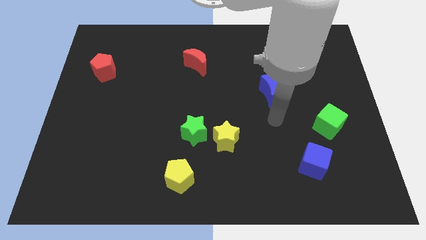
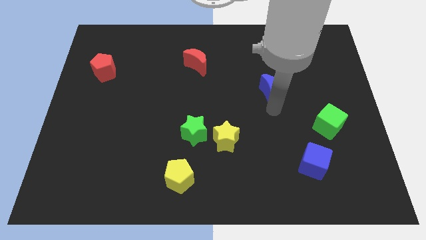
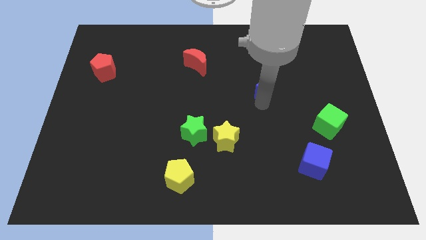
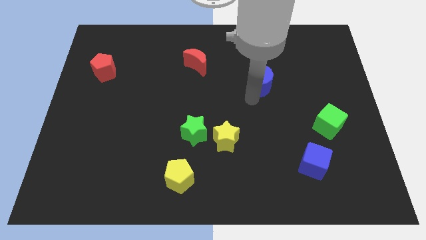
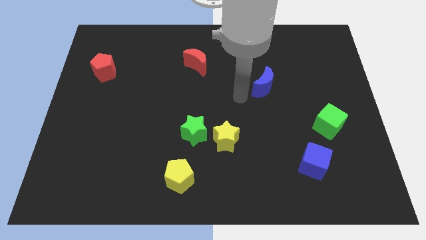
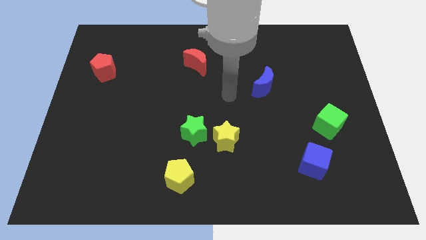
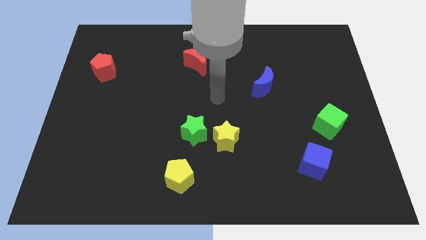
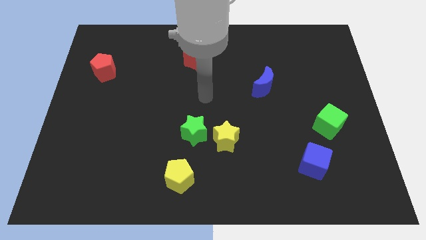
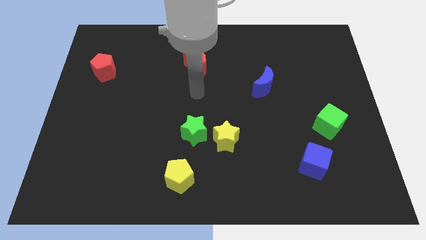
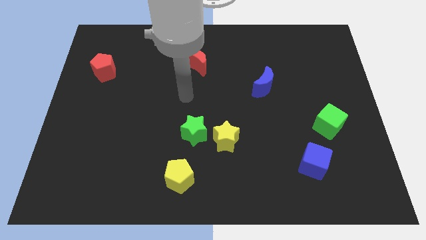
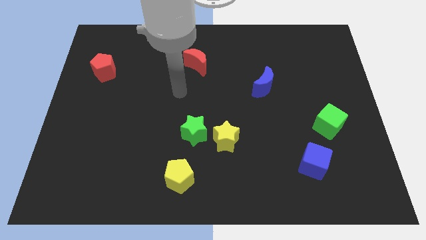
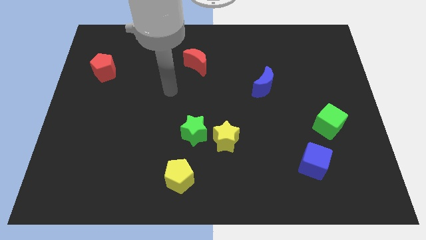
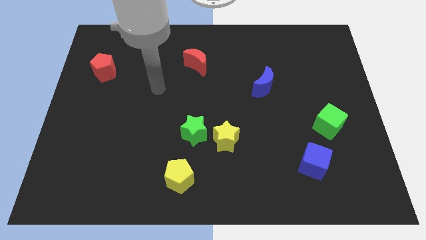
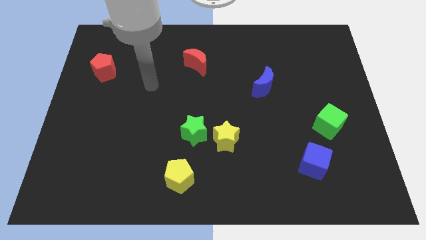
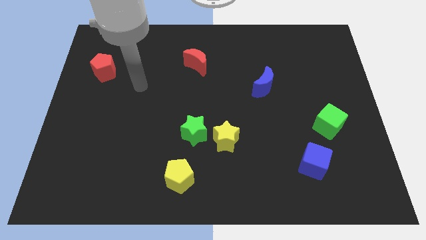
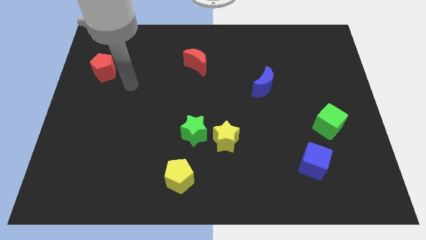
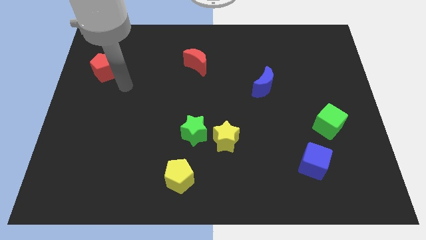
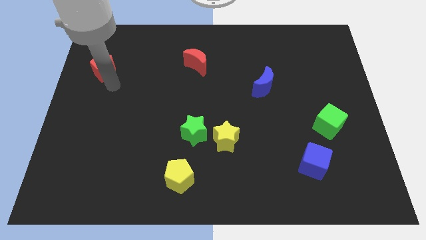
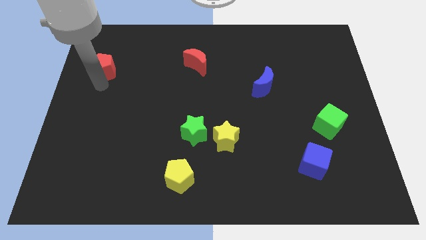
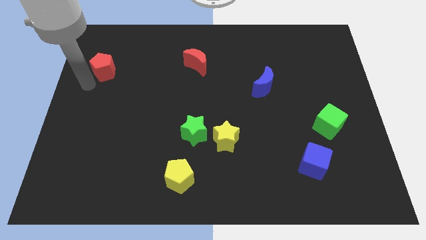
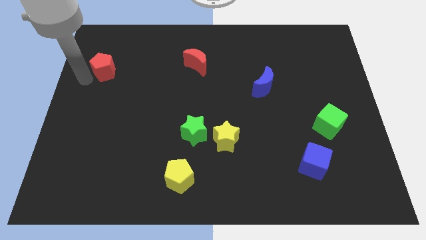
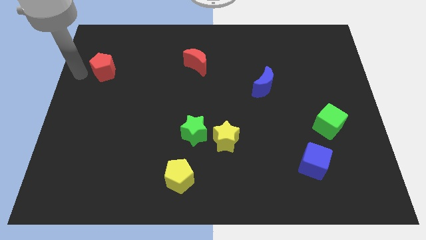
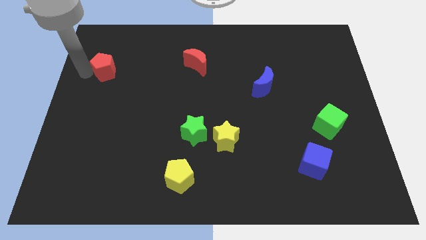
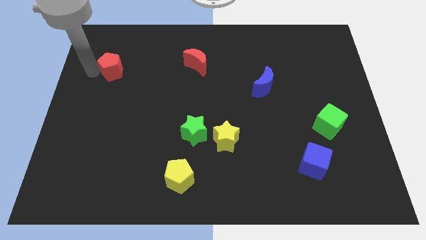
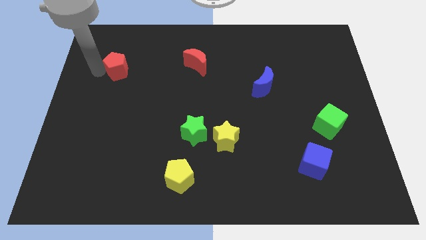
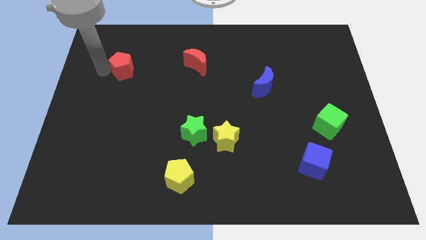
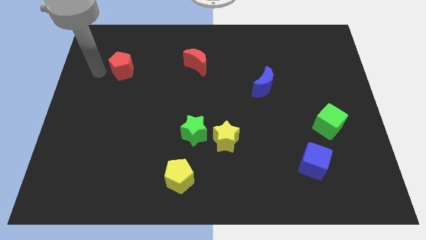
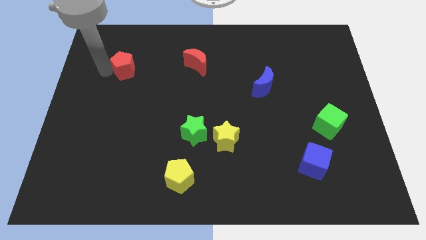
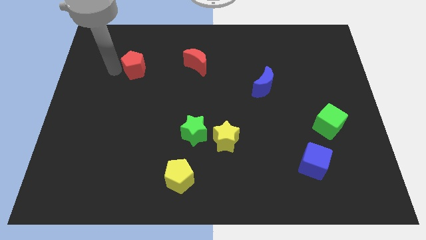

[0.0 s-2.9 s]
slightly move the red pentagon to the right

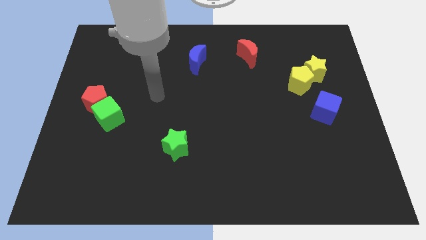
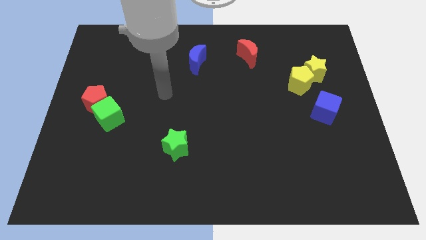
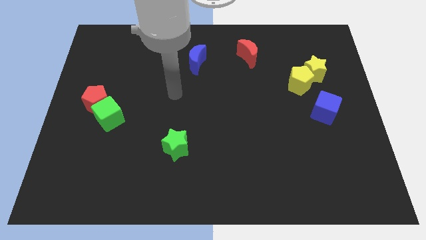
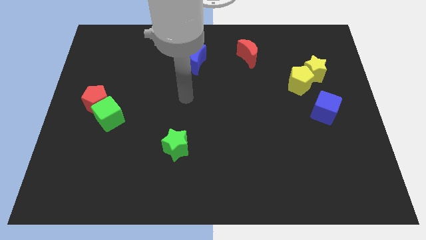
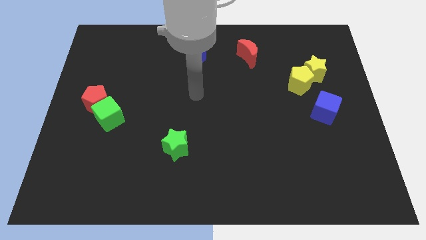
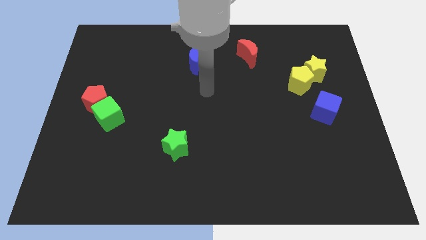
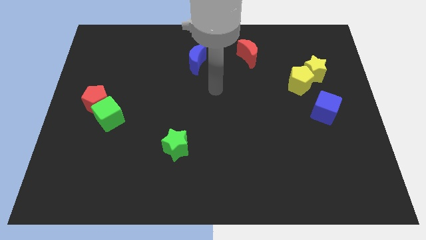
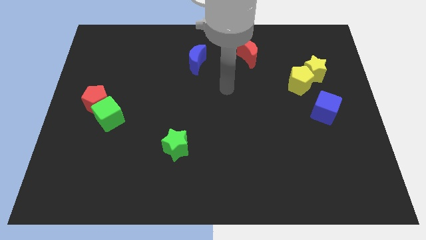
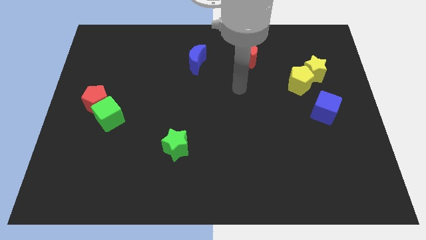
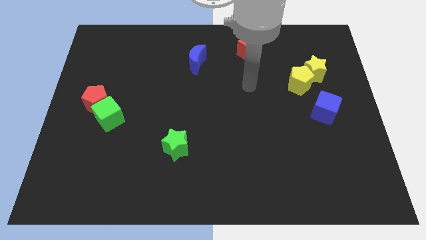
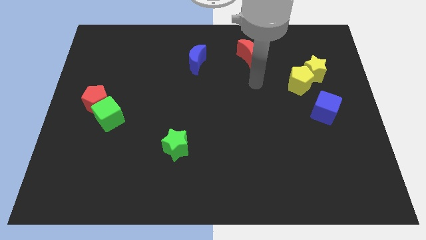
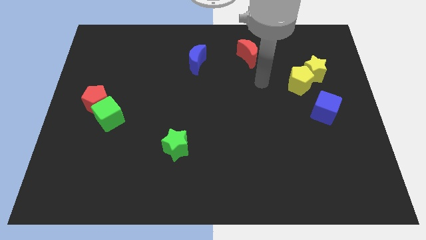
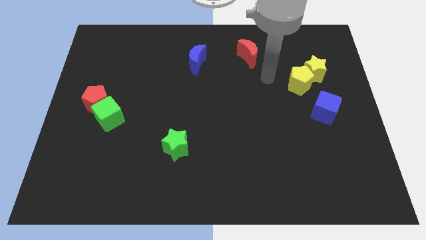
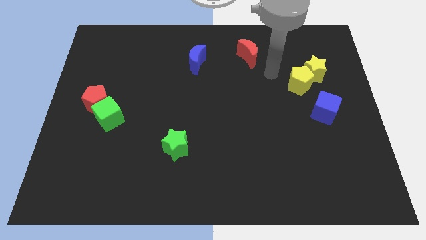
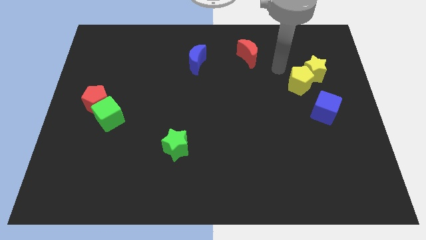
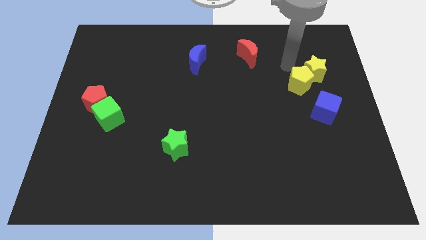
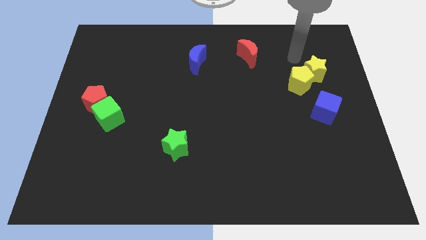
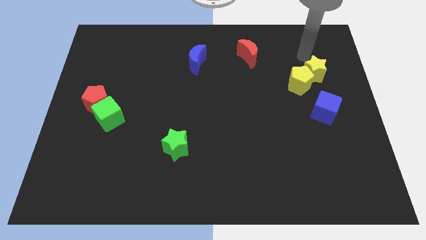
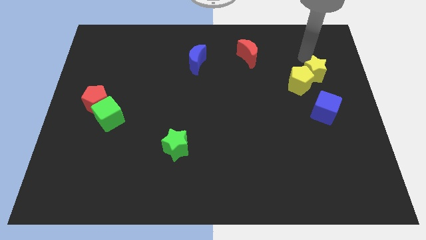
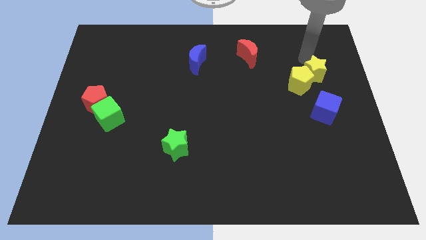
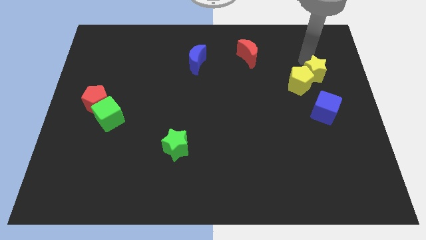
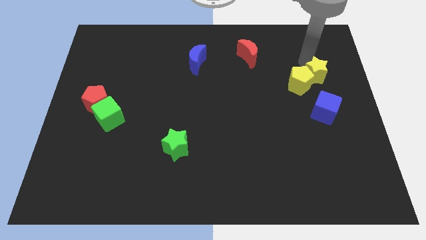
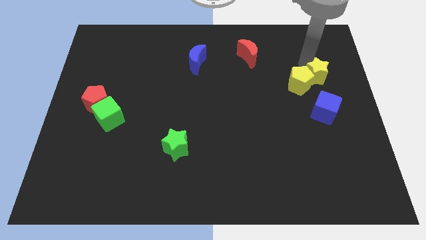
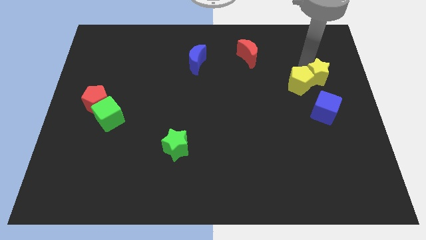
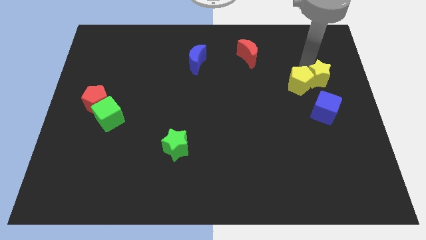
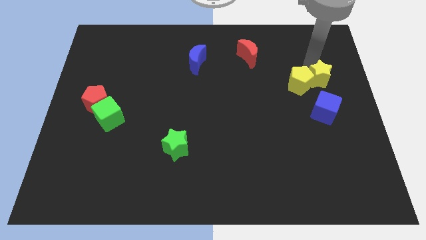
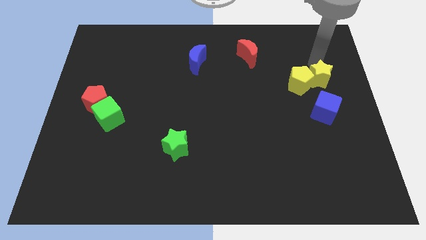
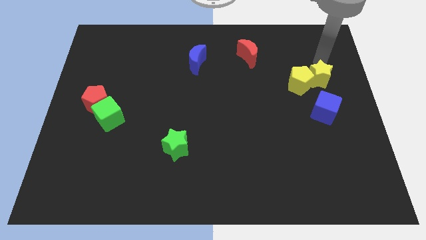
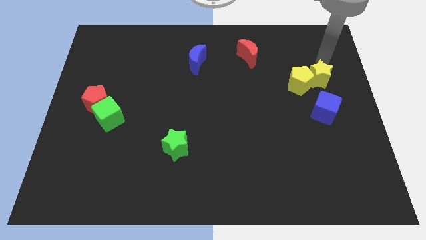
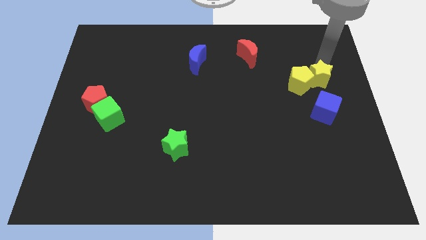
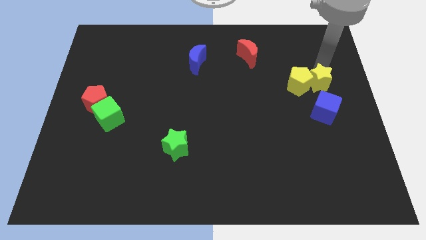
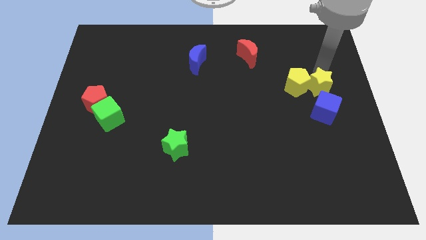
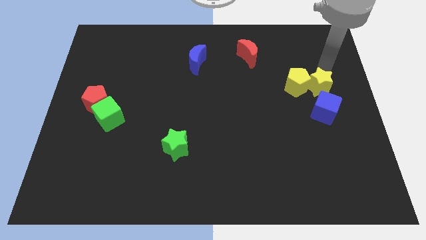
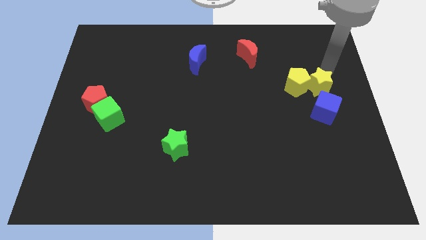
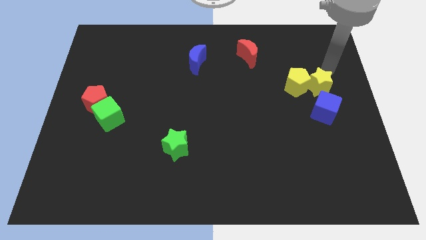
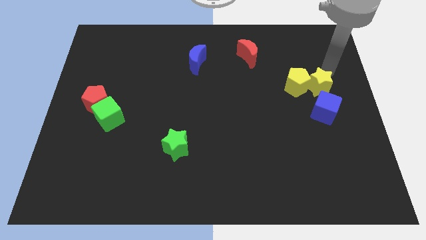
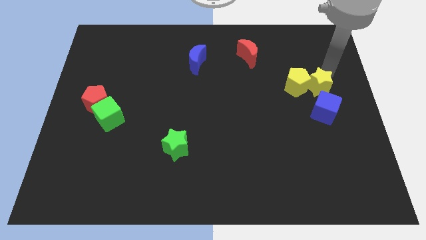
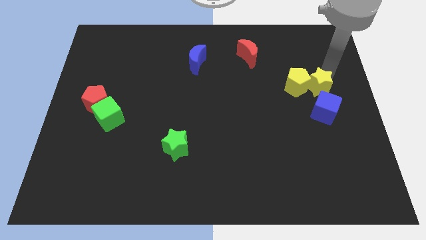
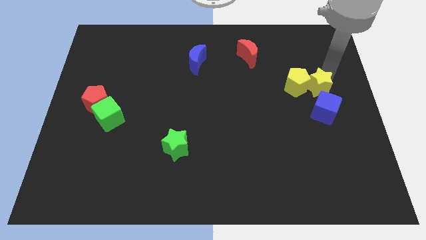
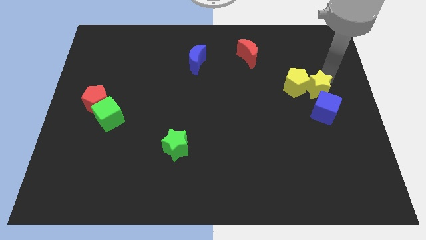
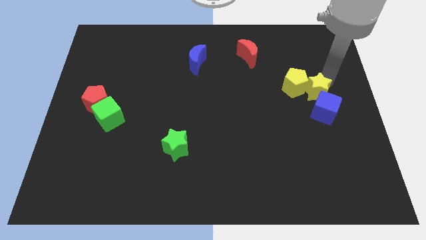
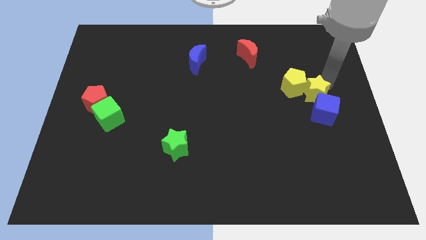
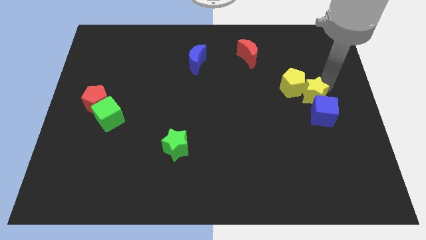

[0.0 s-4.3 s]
slide the yellow star downwards a bit

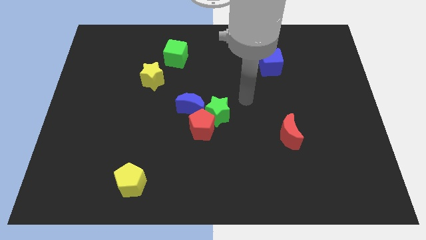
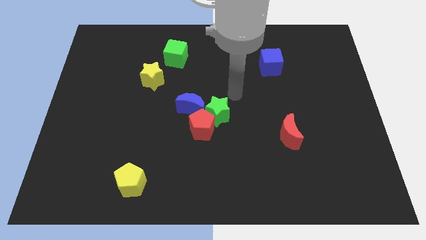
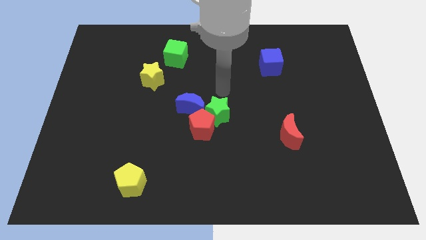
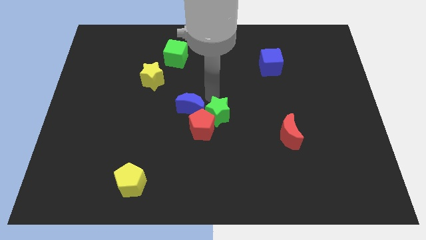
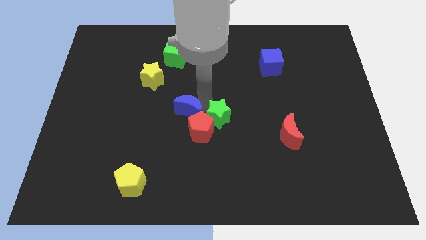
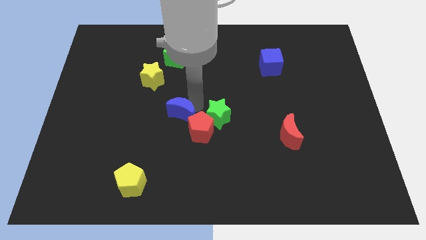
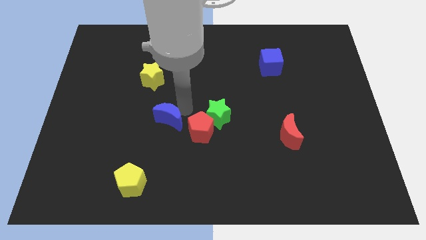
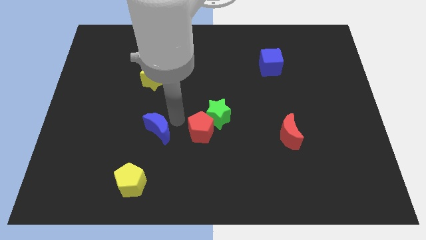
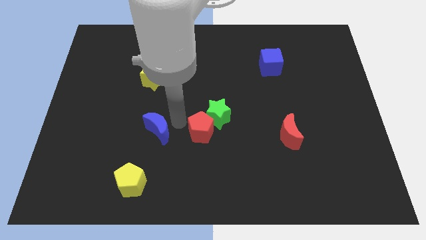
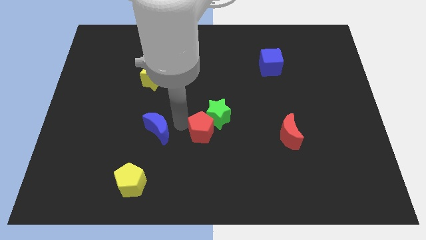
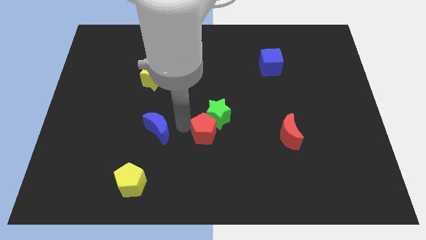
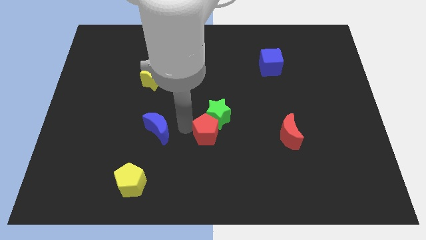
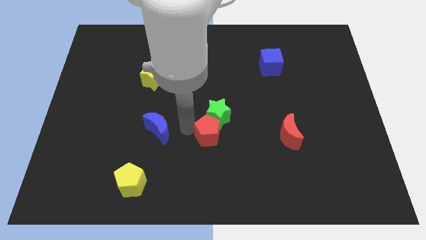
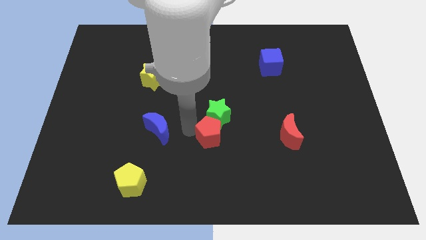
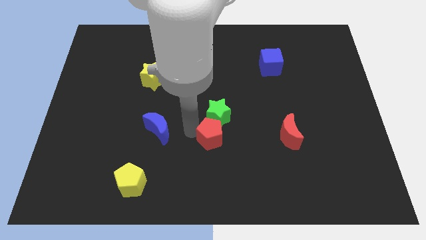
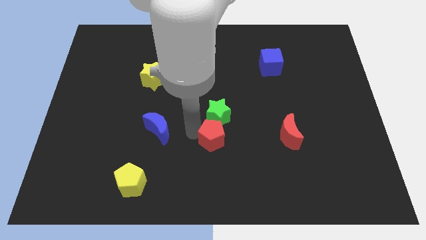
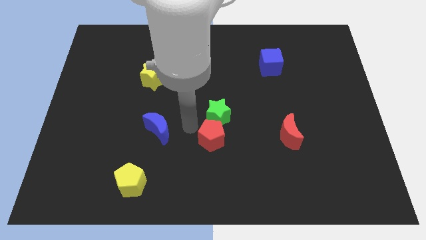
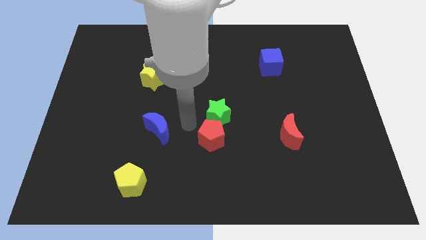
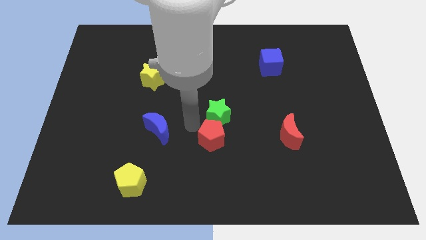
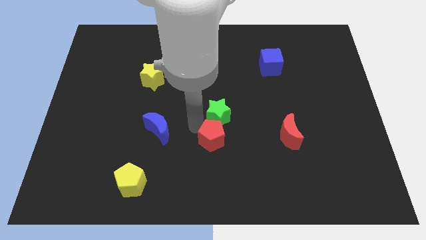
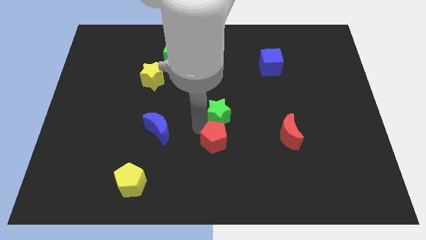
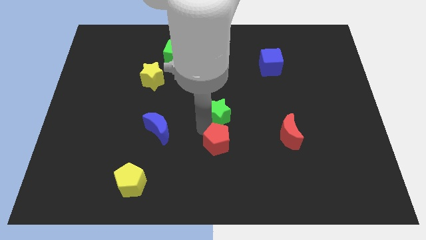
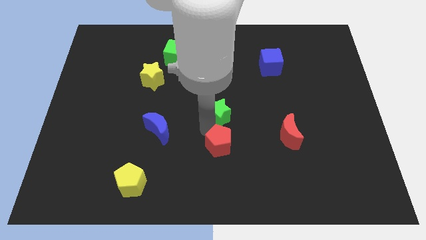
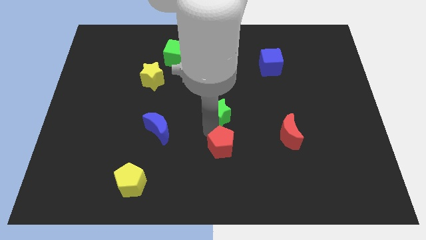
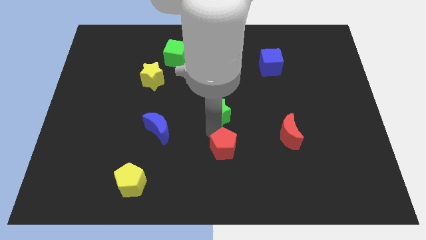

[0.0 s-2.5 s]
move the red pentagon down and to the right a bit
